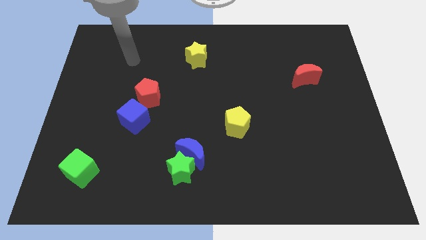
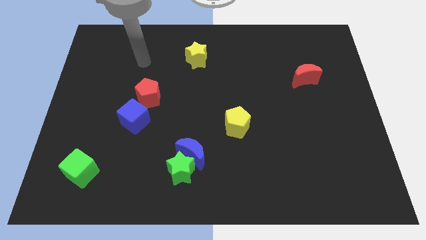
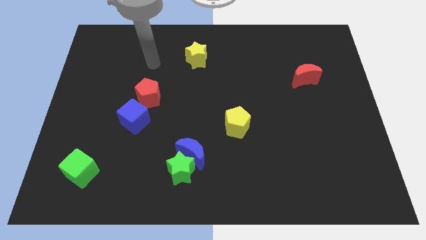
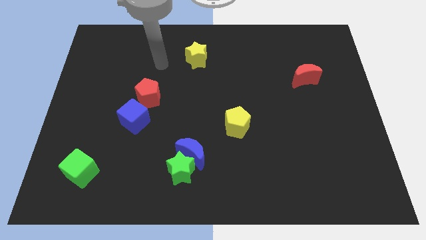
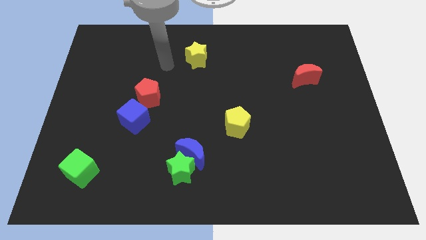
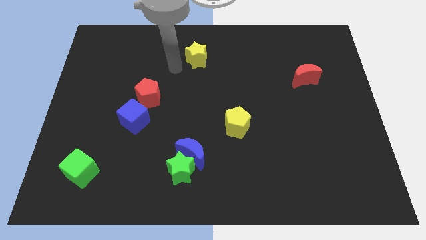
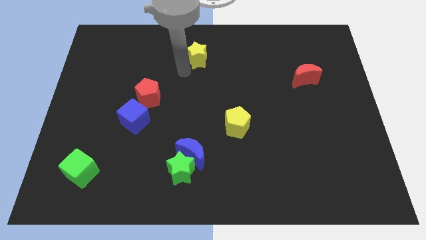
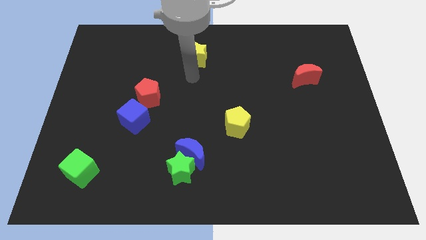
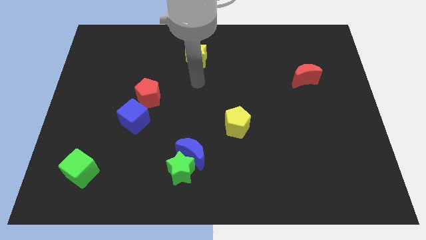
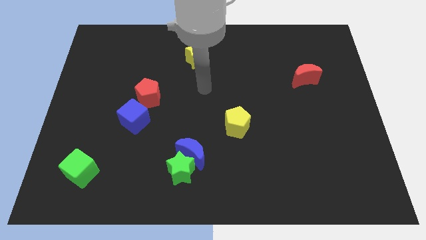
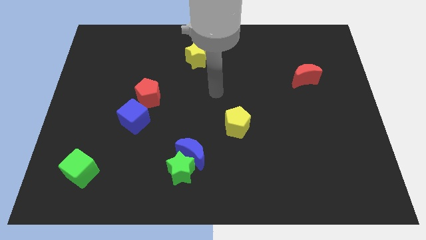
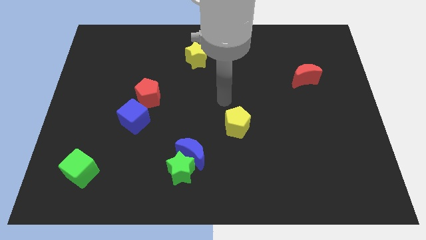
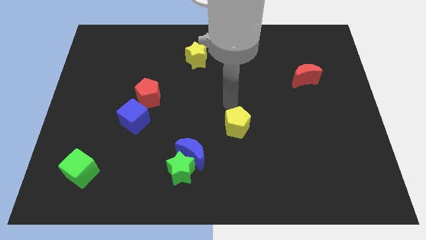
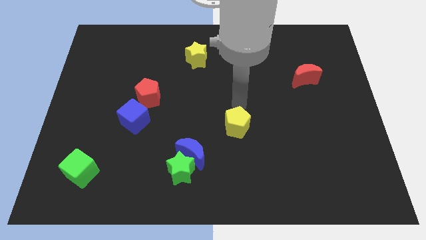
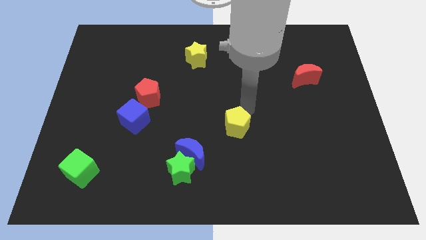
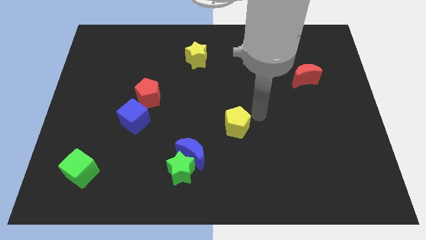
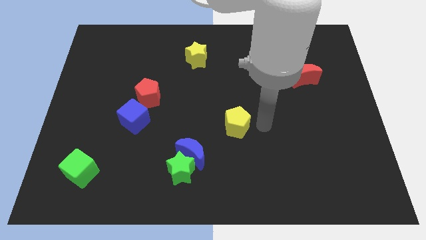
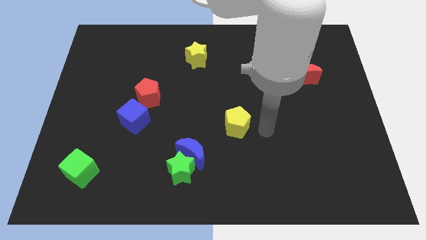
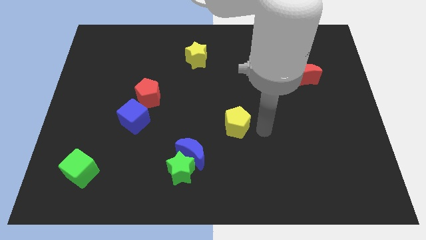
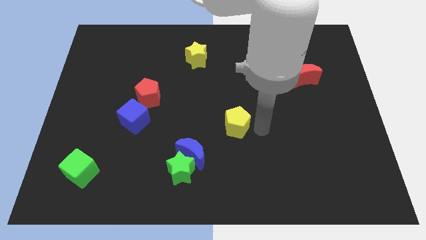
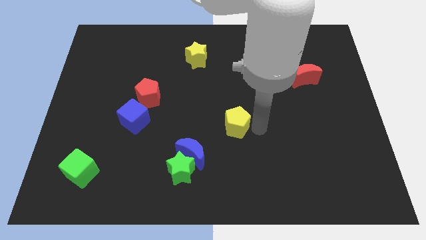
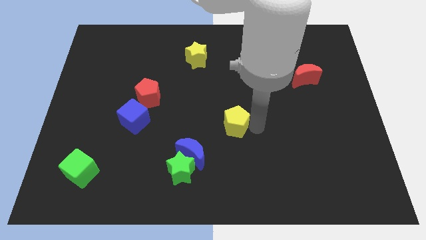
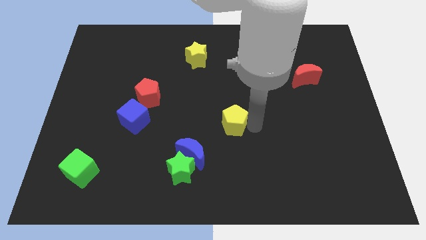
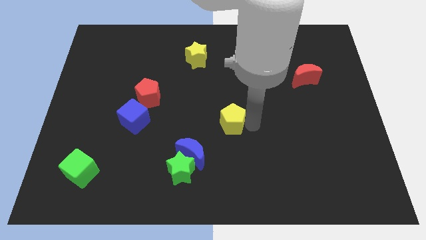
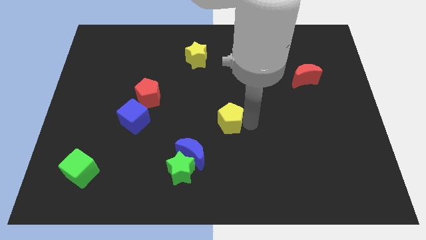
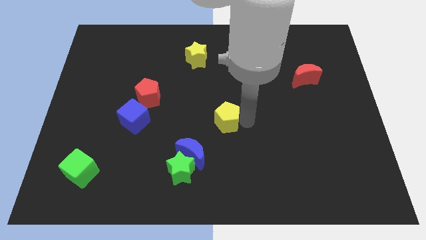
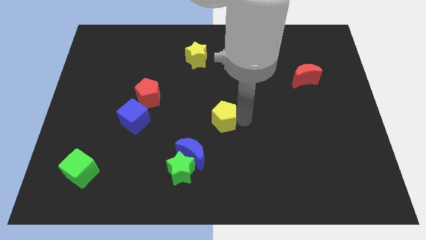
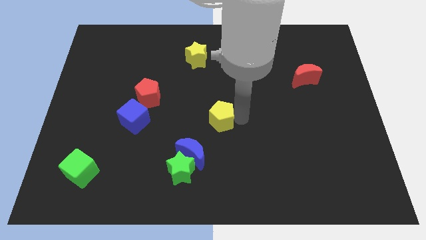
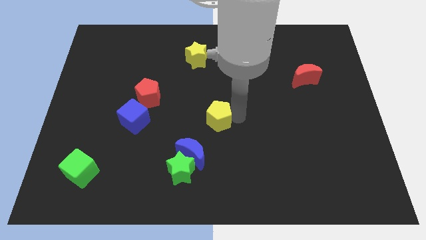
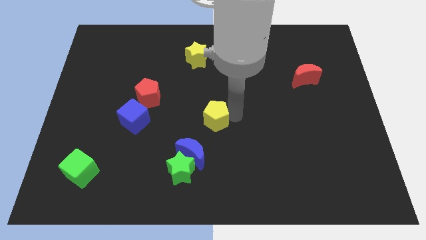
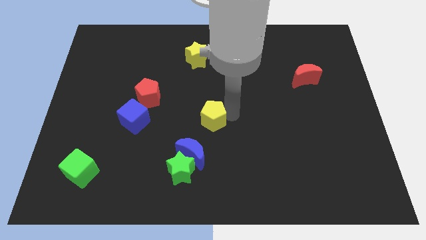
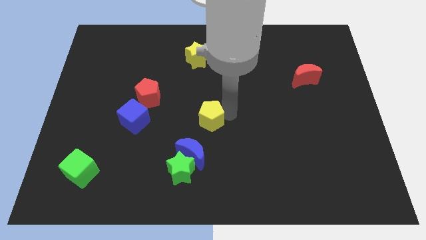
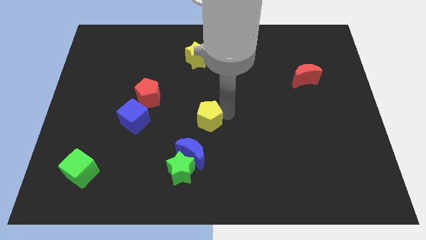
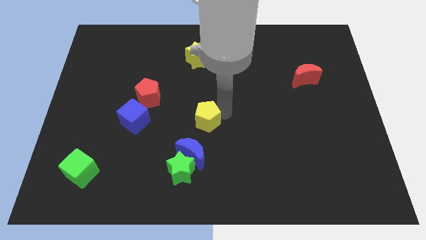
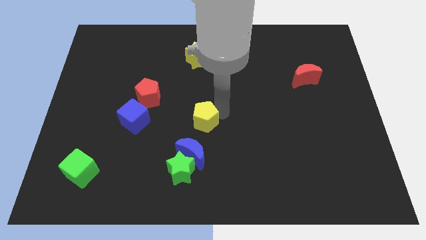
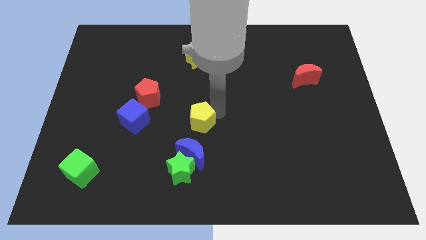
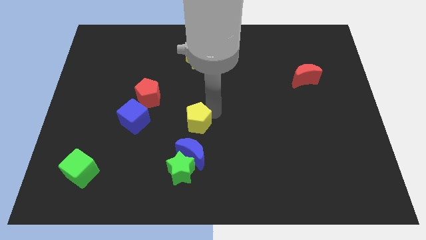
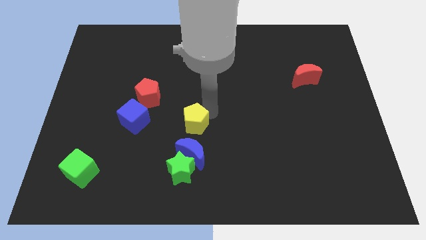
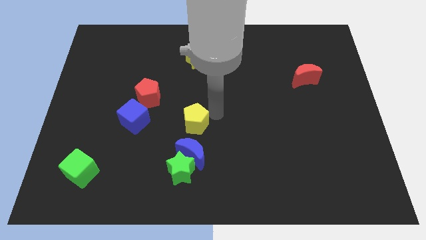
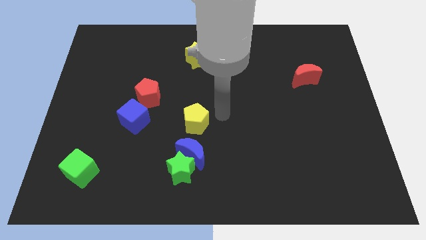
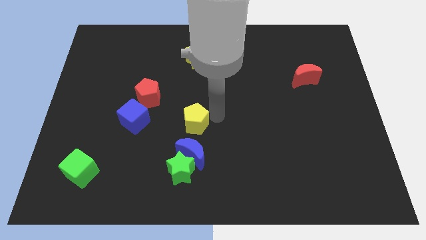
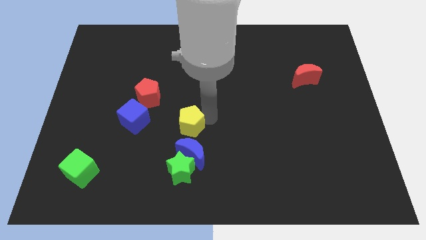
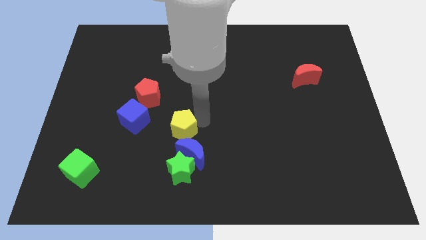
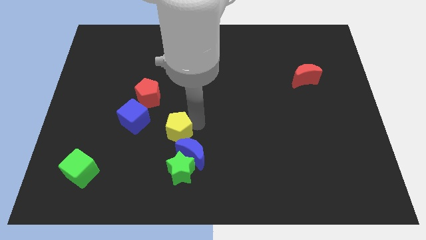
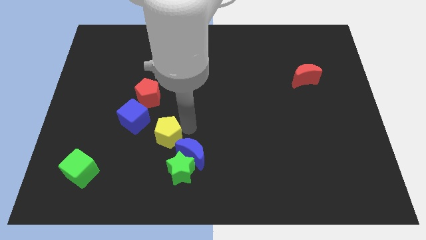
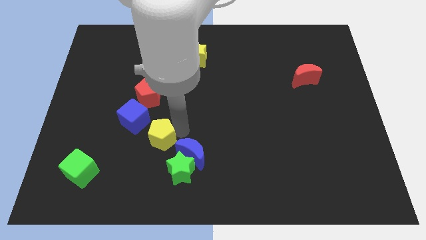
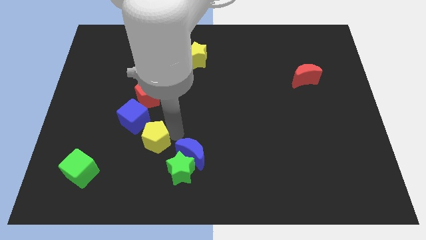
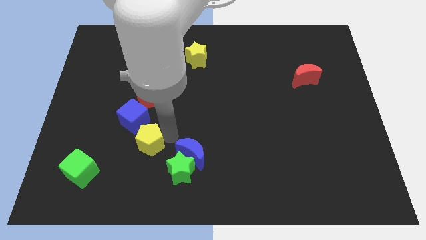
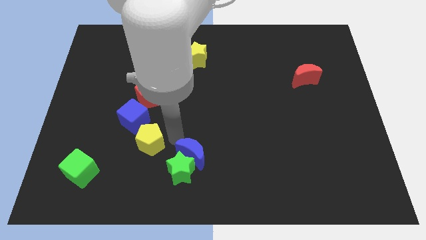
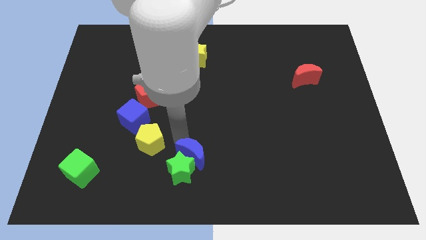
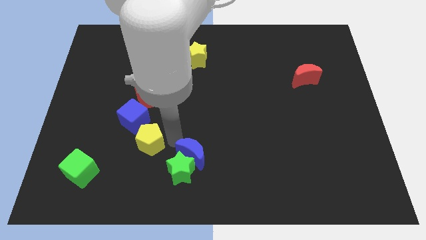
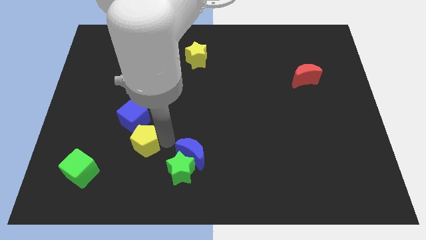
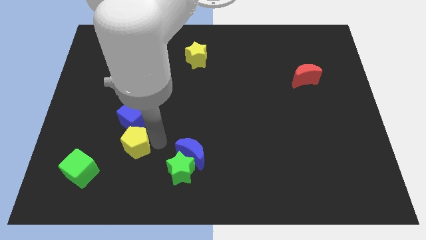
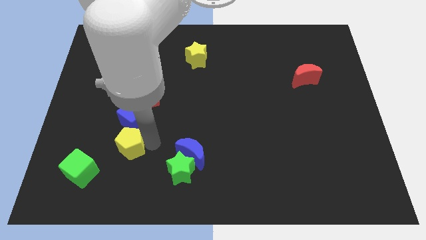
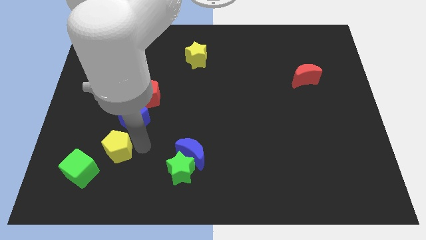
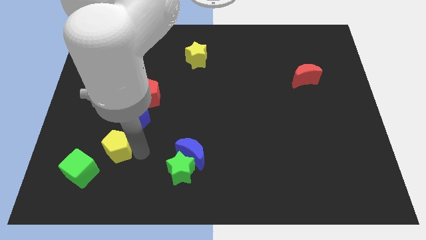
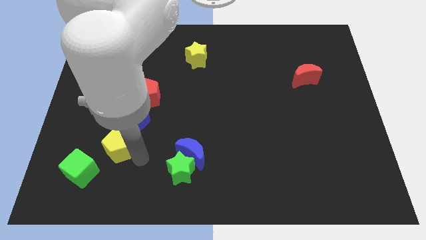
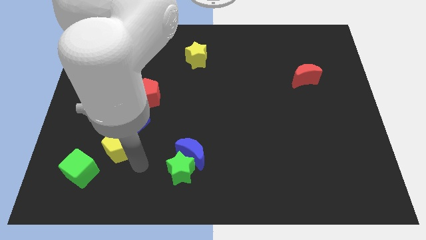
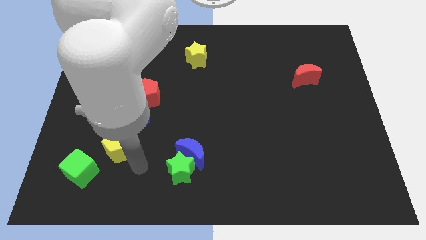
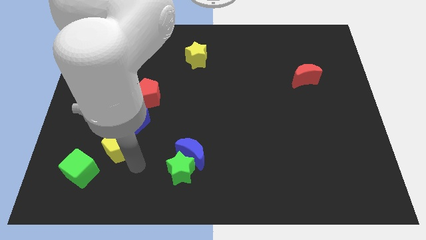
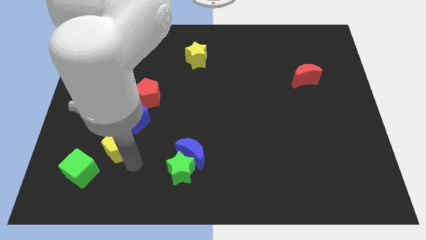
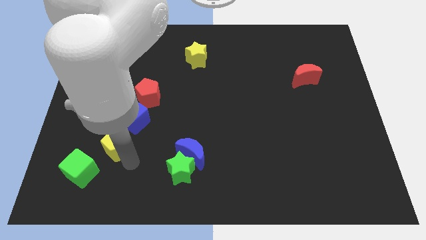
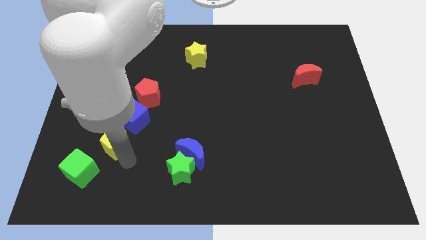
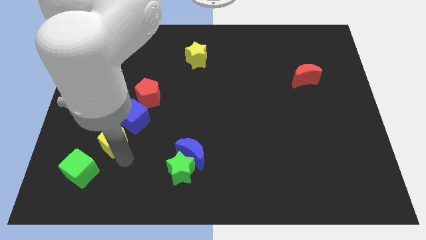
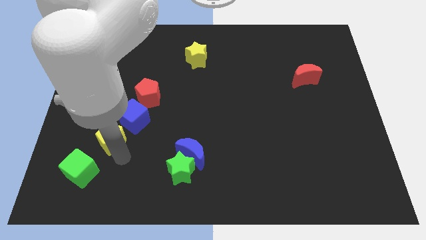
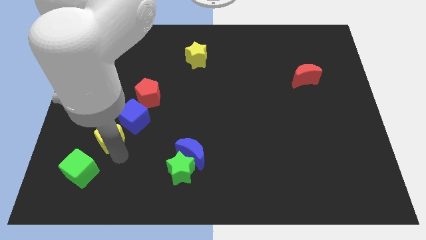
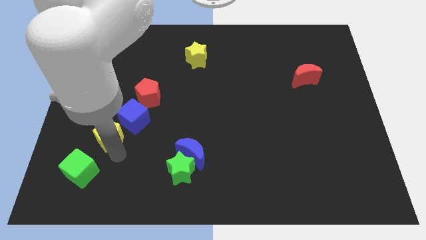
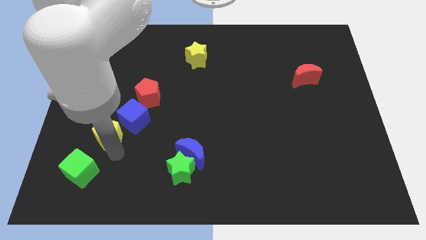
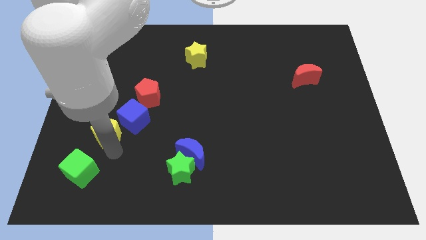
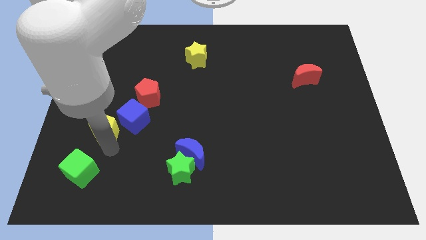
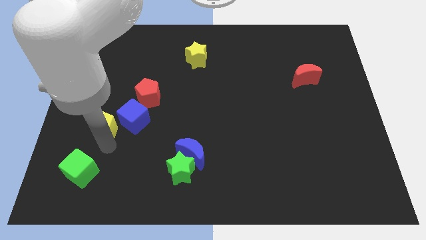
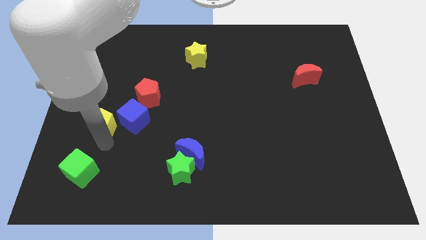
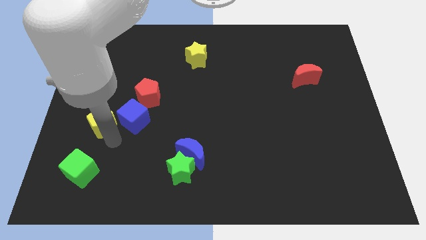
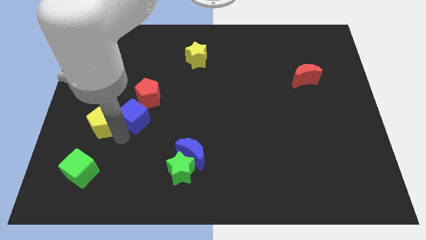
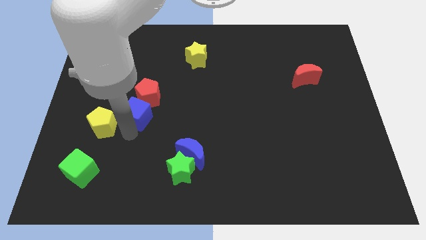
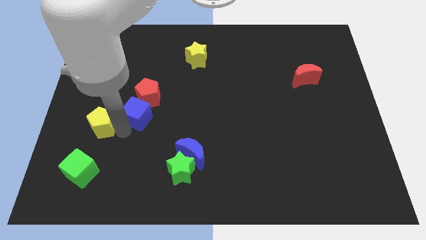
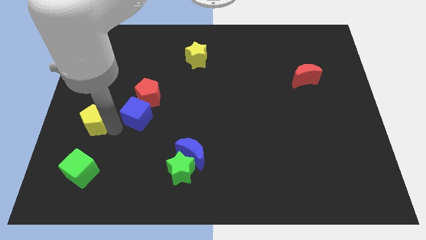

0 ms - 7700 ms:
slide the yellow pentagon to the center left
